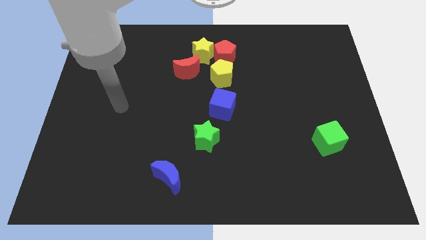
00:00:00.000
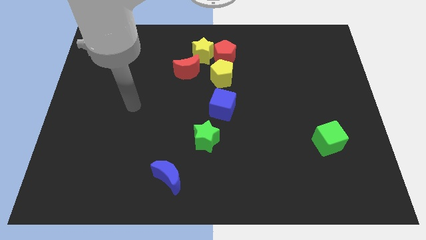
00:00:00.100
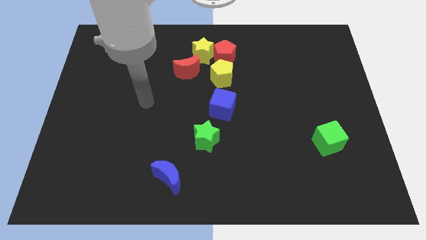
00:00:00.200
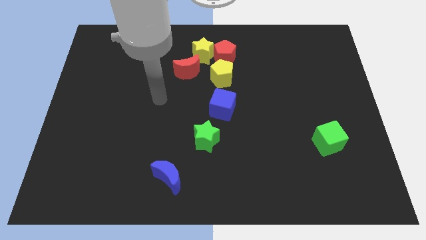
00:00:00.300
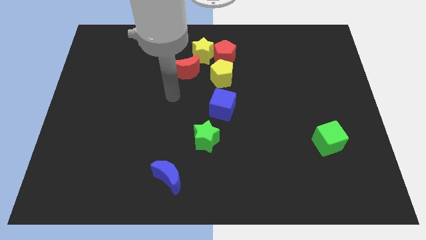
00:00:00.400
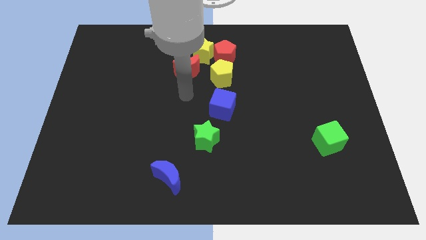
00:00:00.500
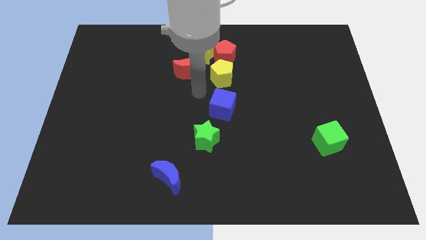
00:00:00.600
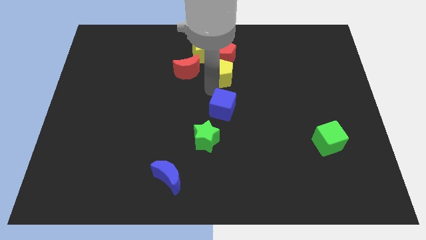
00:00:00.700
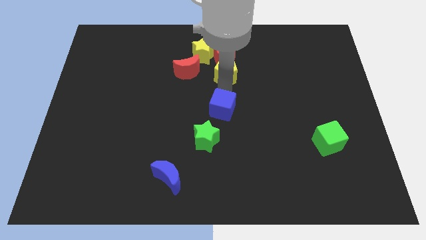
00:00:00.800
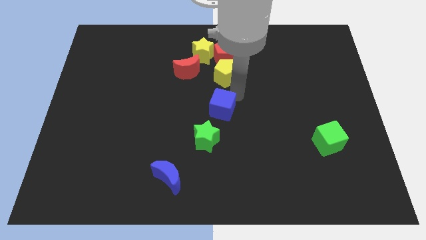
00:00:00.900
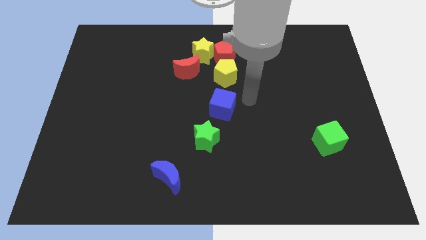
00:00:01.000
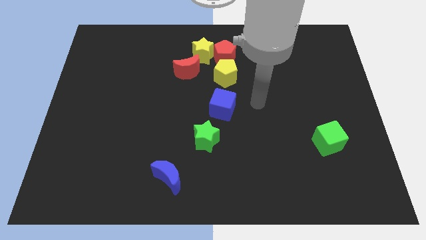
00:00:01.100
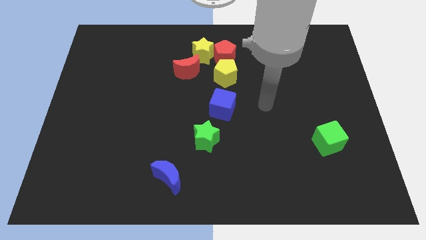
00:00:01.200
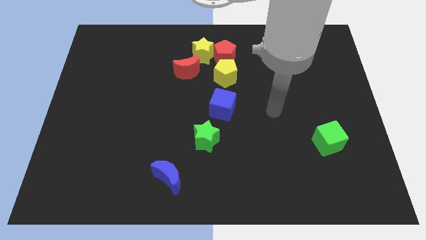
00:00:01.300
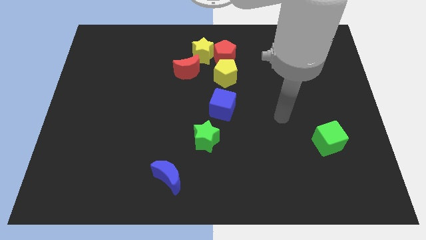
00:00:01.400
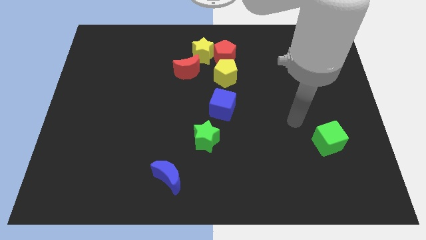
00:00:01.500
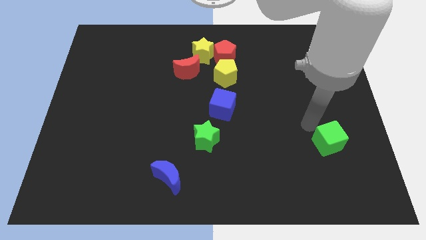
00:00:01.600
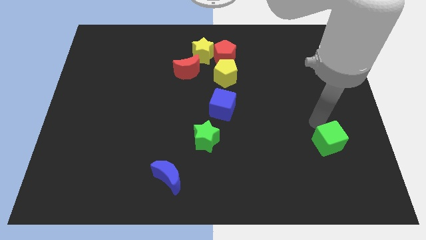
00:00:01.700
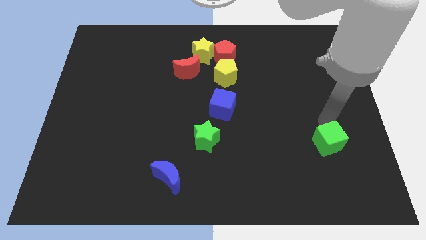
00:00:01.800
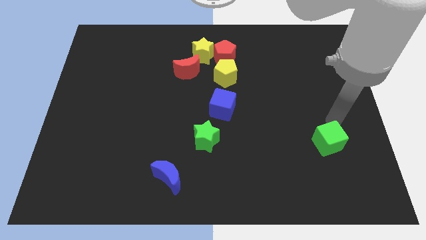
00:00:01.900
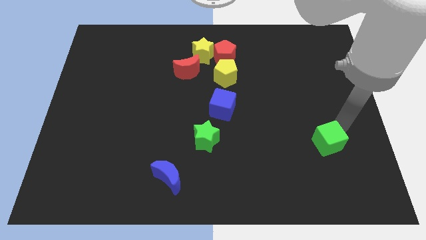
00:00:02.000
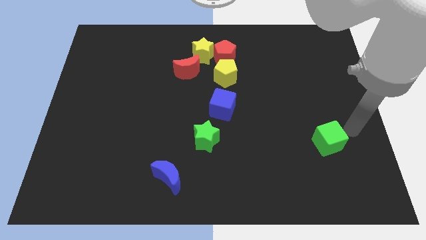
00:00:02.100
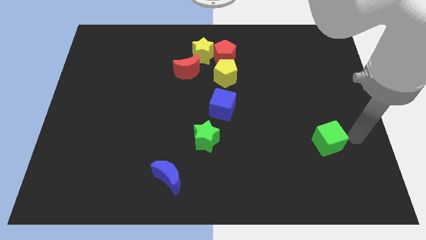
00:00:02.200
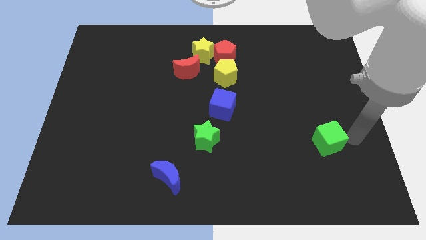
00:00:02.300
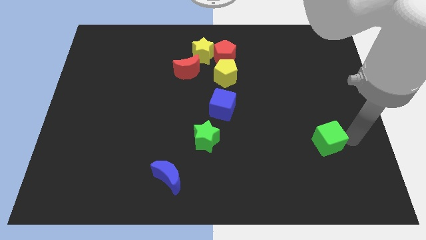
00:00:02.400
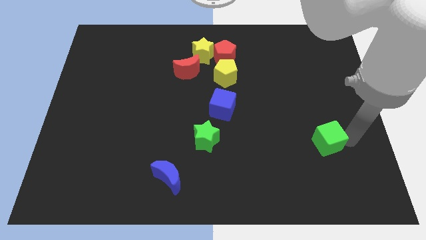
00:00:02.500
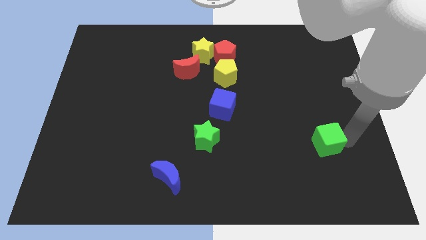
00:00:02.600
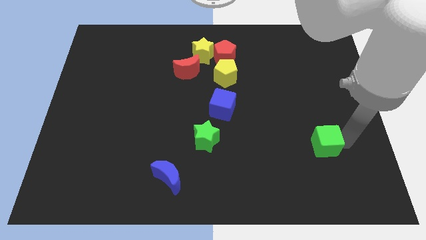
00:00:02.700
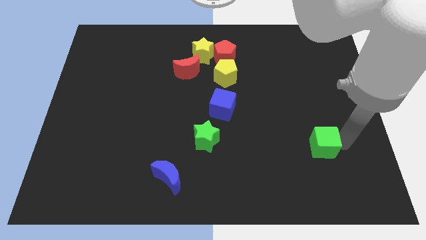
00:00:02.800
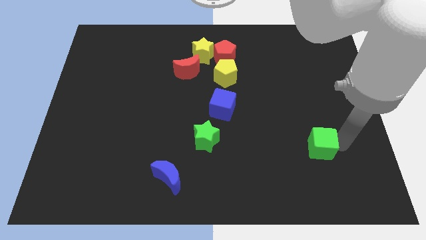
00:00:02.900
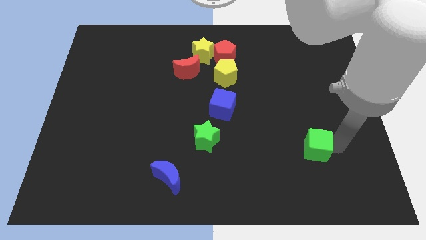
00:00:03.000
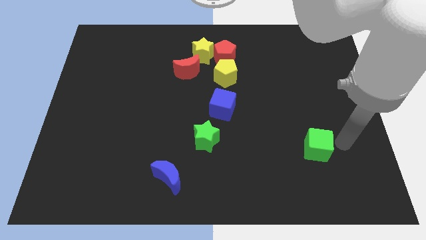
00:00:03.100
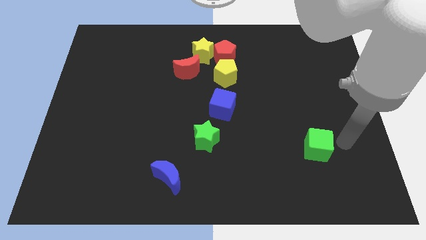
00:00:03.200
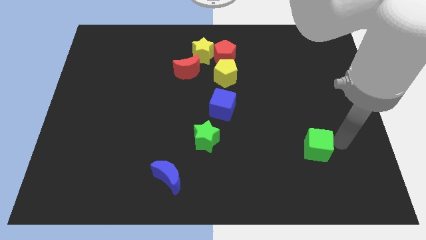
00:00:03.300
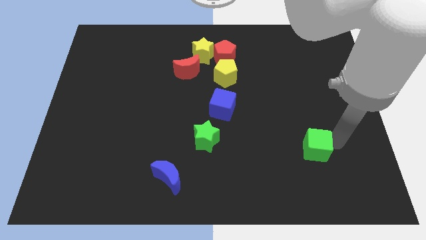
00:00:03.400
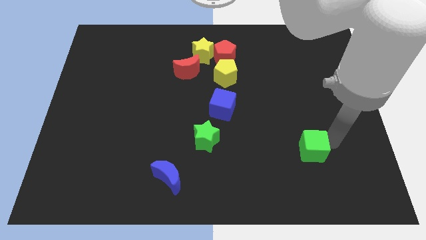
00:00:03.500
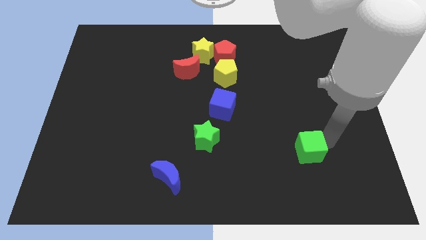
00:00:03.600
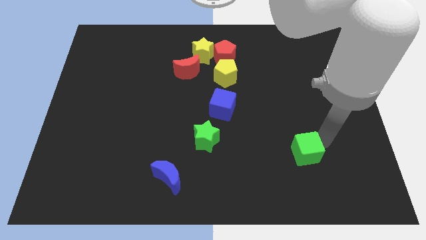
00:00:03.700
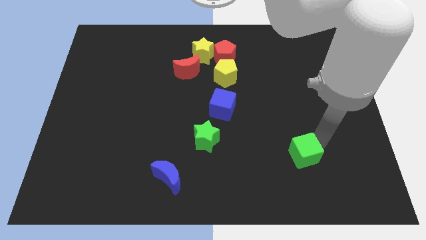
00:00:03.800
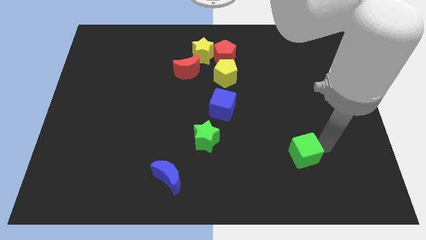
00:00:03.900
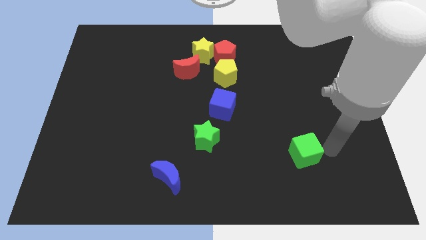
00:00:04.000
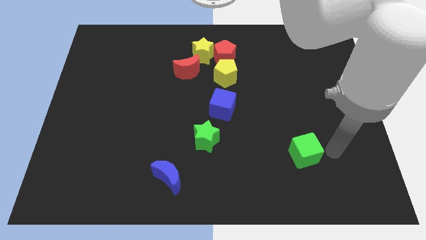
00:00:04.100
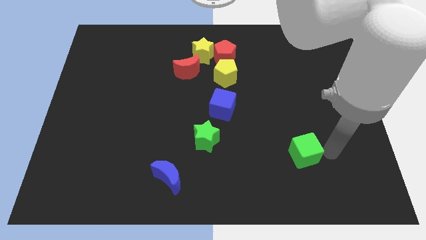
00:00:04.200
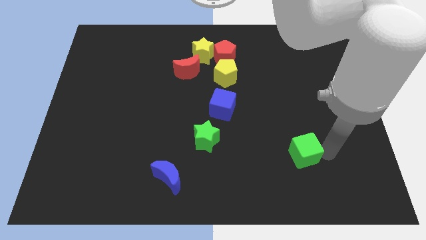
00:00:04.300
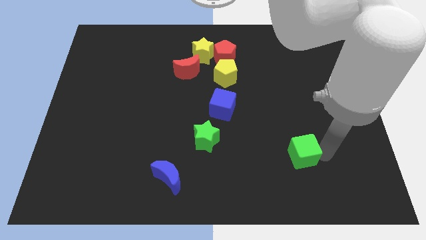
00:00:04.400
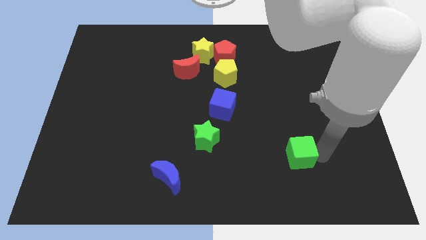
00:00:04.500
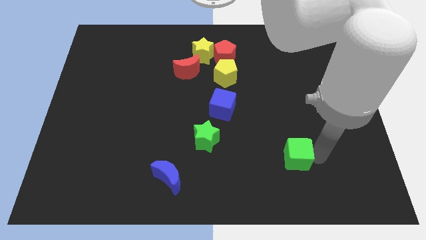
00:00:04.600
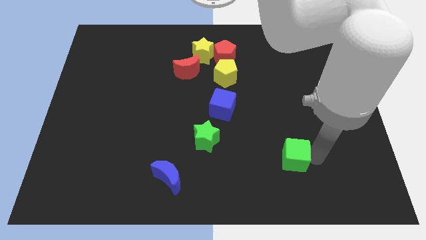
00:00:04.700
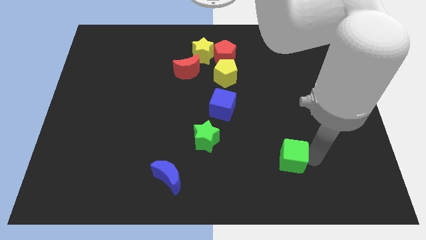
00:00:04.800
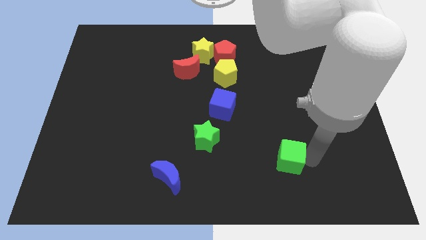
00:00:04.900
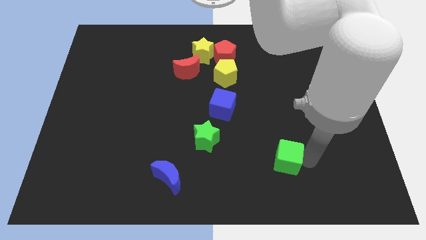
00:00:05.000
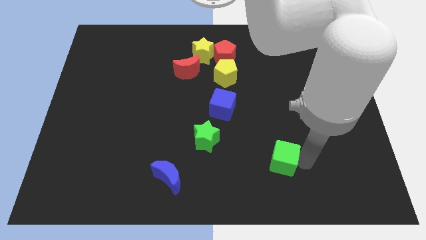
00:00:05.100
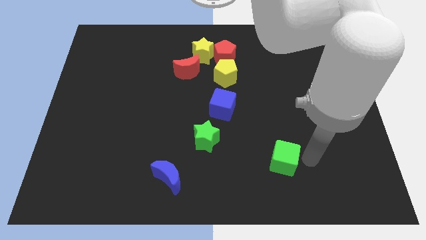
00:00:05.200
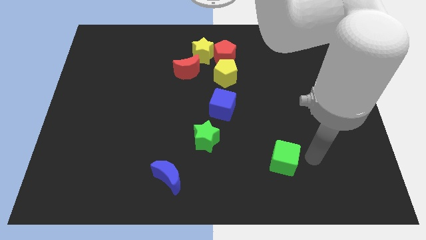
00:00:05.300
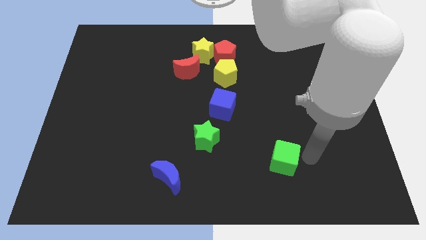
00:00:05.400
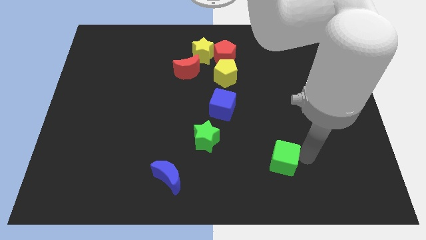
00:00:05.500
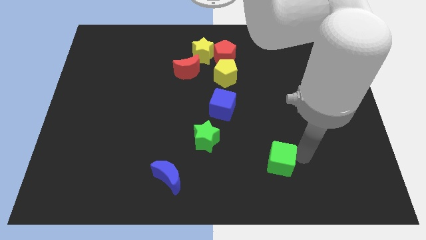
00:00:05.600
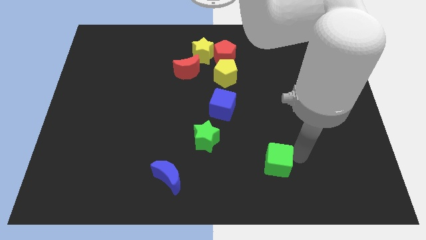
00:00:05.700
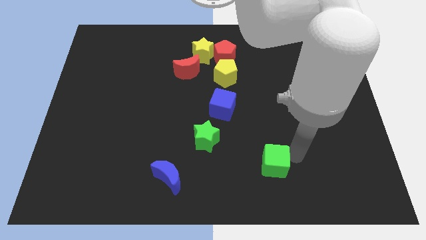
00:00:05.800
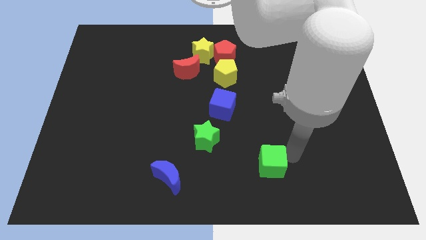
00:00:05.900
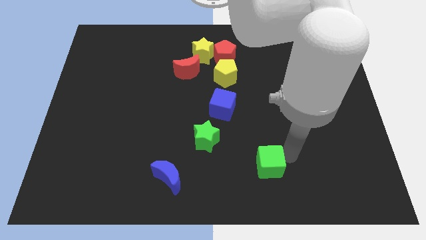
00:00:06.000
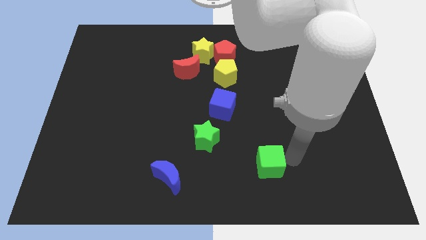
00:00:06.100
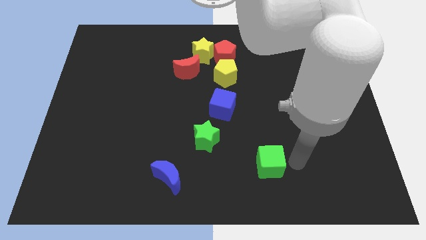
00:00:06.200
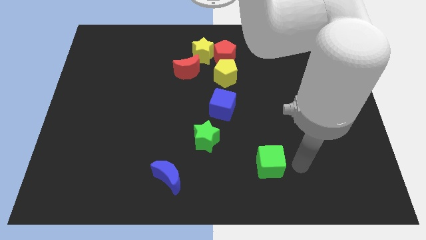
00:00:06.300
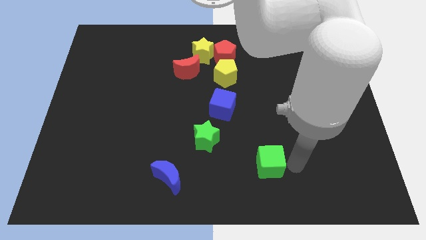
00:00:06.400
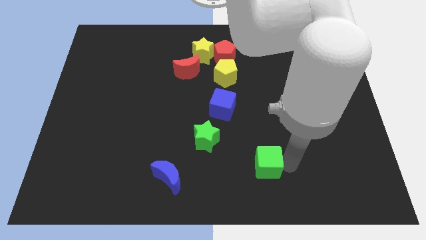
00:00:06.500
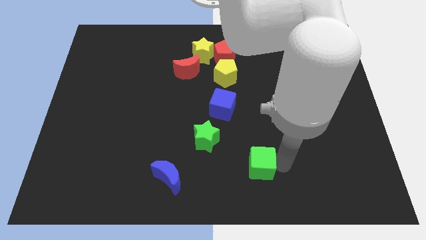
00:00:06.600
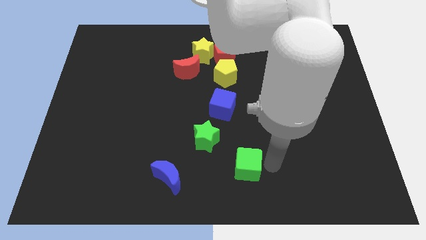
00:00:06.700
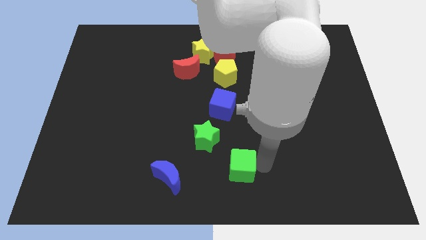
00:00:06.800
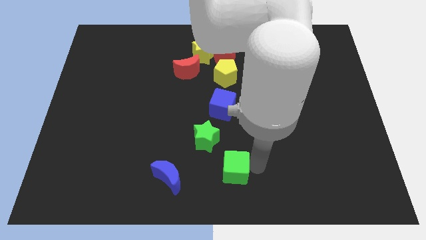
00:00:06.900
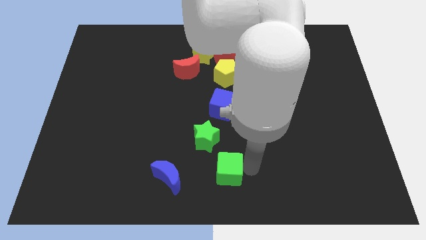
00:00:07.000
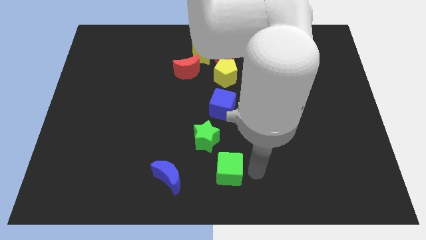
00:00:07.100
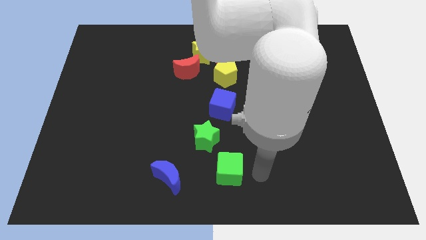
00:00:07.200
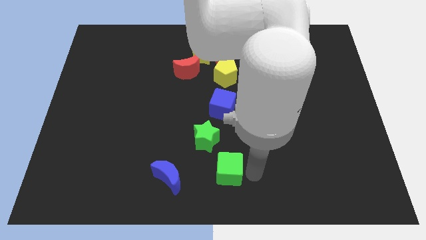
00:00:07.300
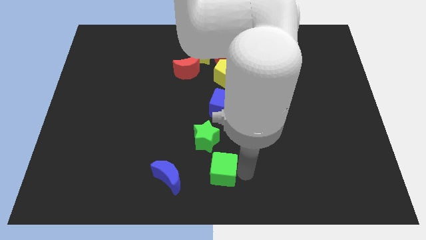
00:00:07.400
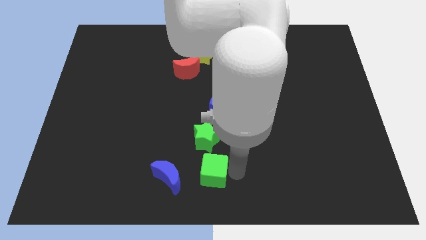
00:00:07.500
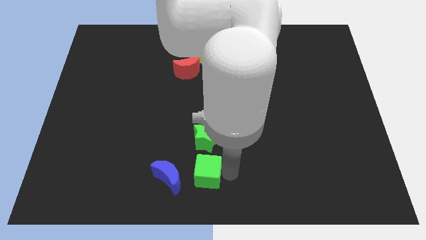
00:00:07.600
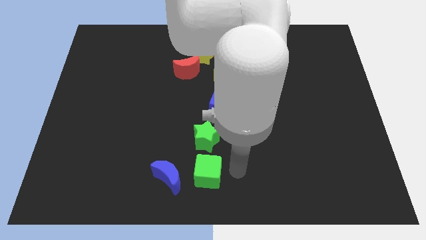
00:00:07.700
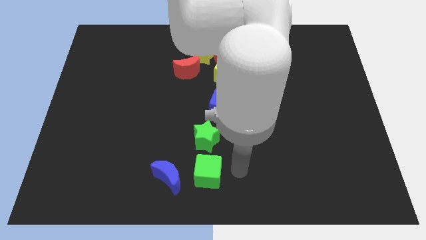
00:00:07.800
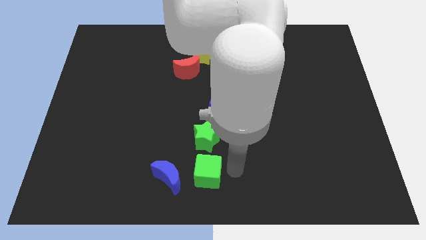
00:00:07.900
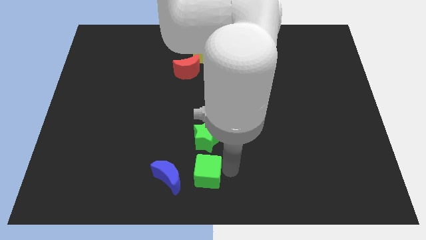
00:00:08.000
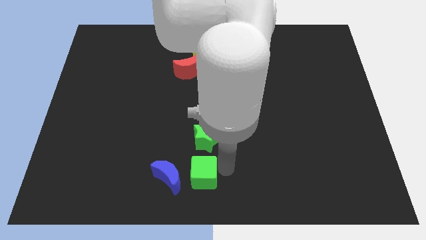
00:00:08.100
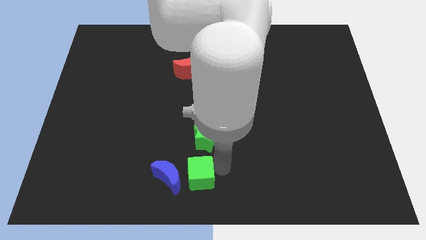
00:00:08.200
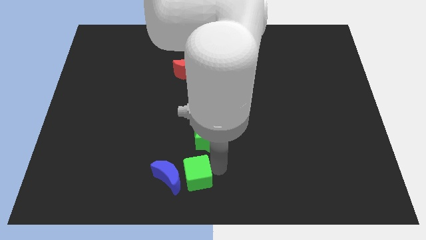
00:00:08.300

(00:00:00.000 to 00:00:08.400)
move the green cube next to the blue moon
